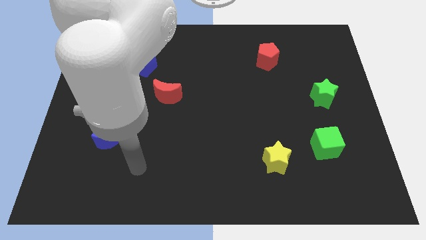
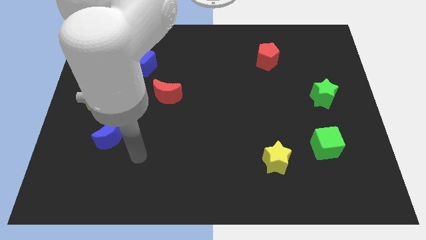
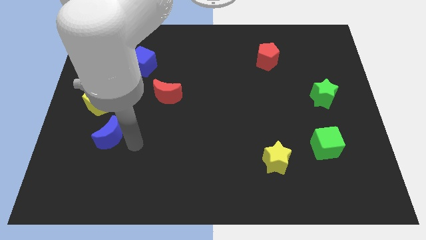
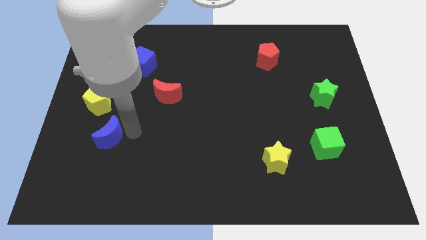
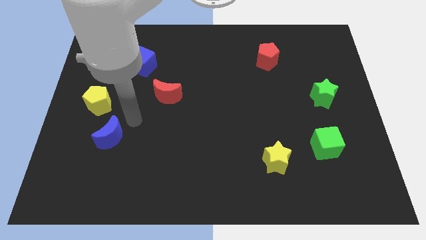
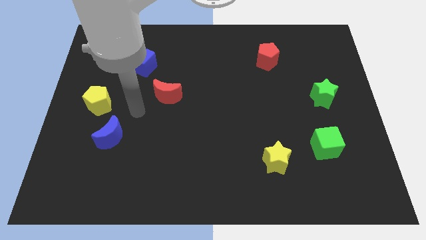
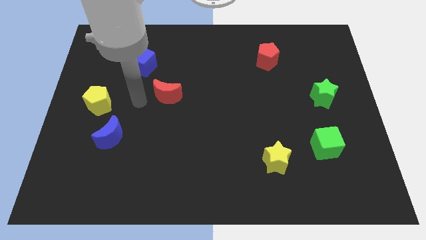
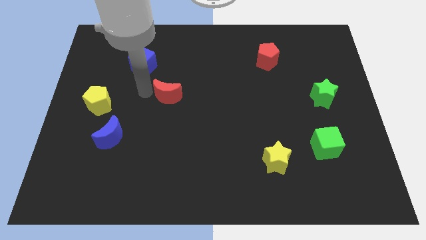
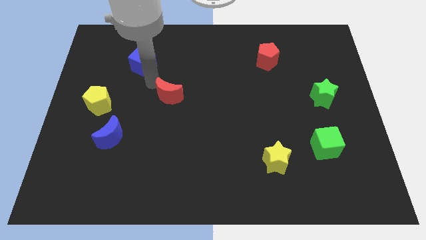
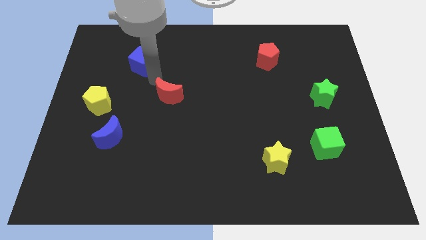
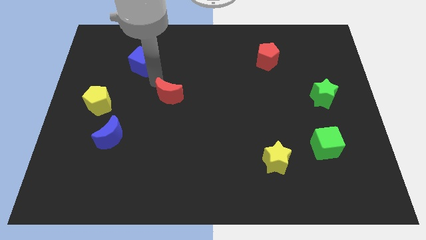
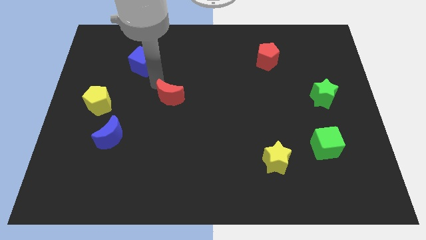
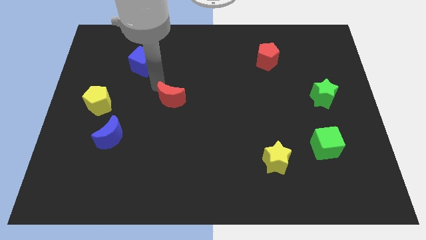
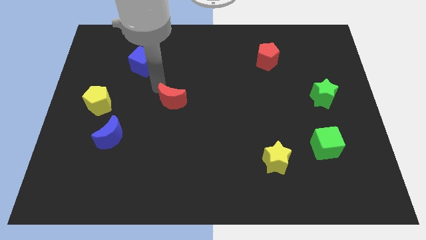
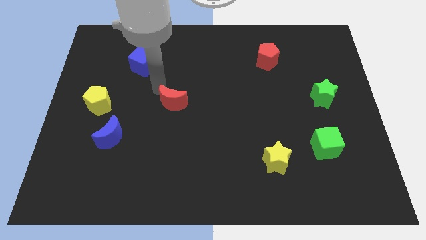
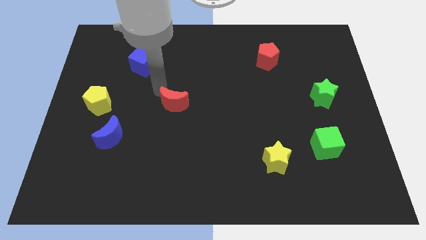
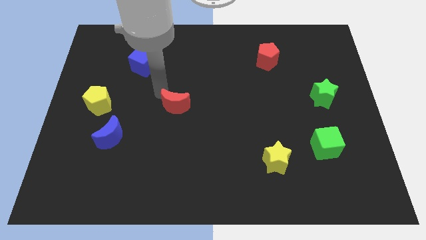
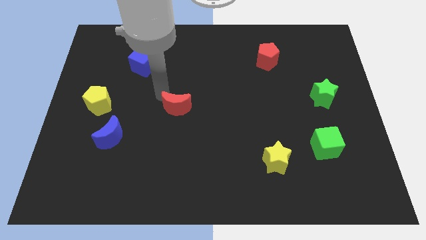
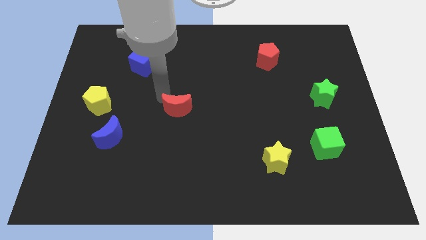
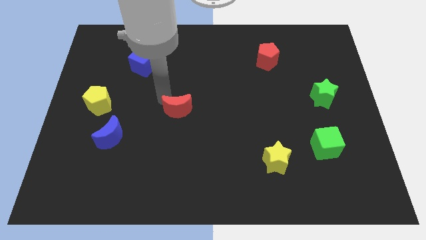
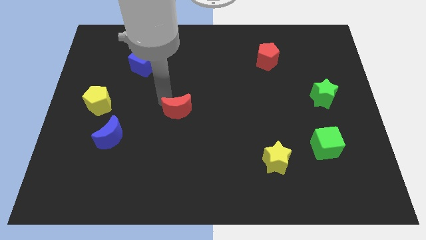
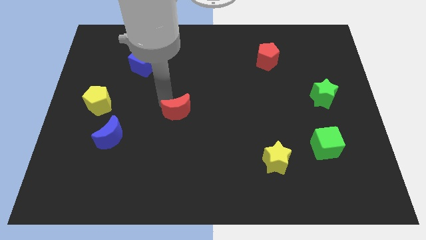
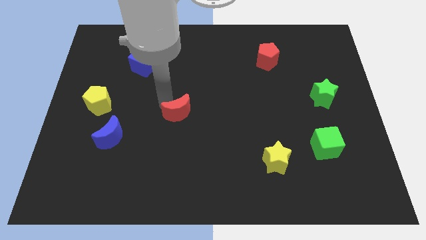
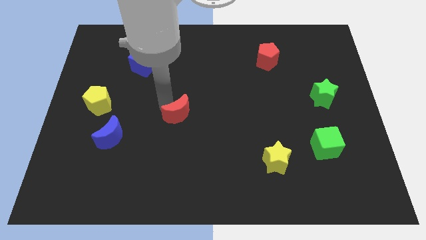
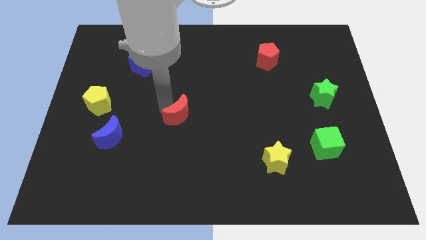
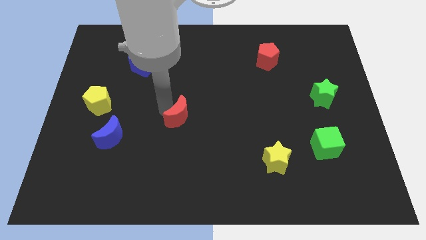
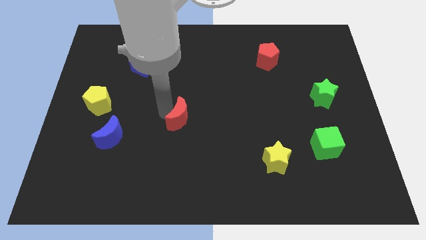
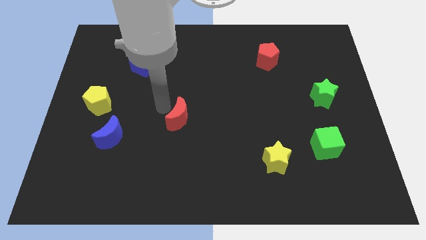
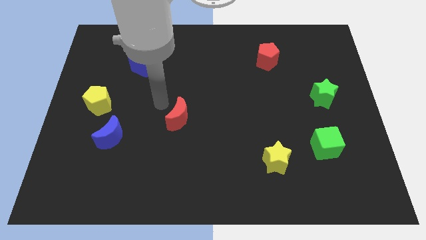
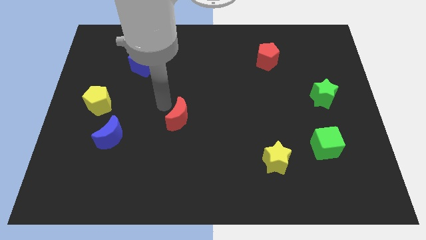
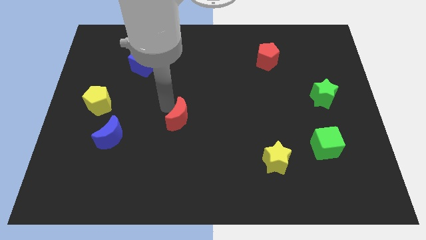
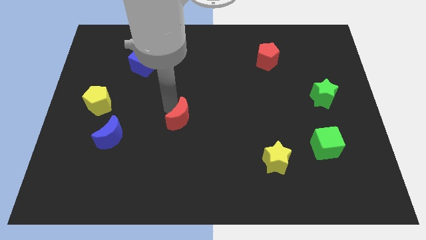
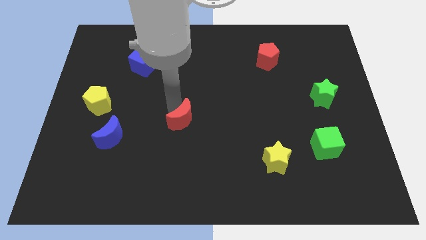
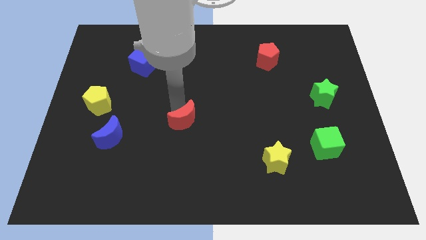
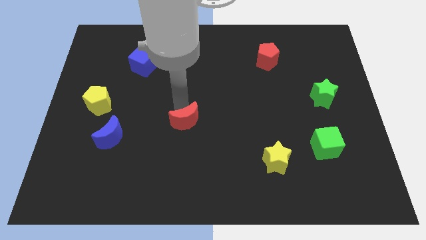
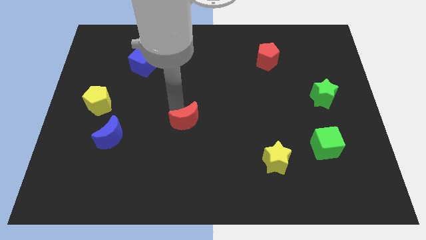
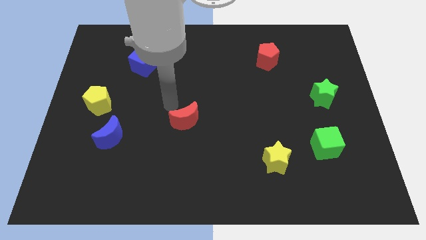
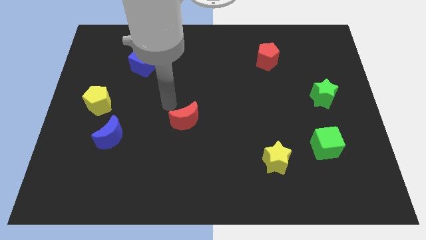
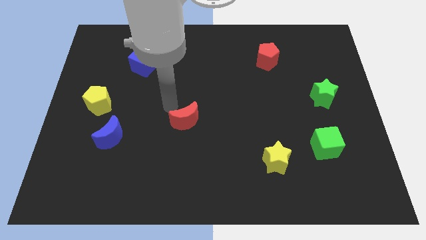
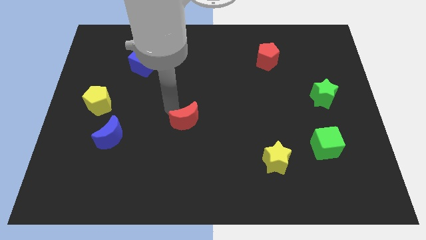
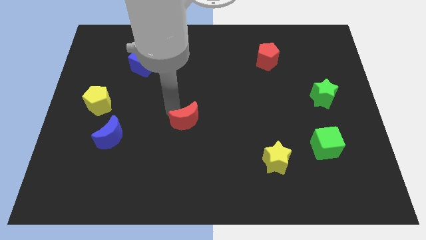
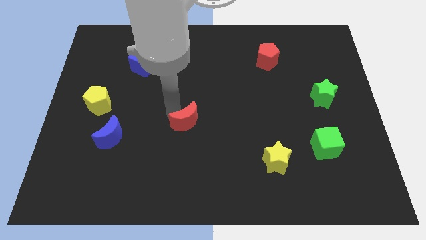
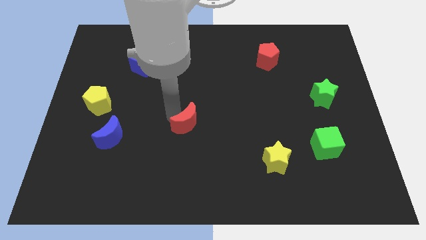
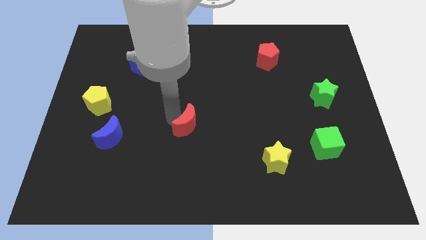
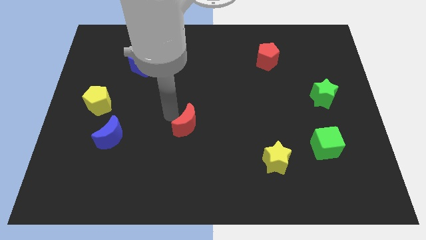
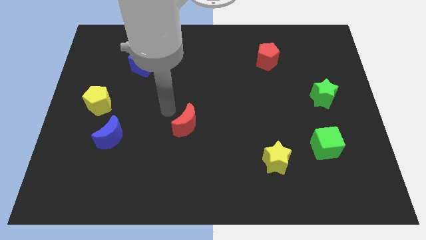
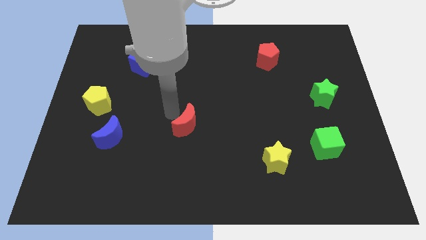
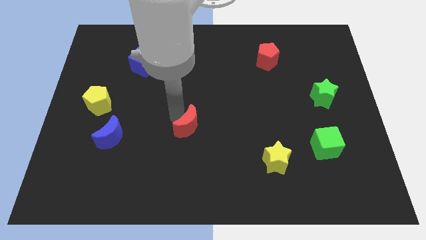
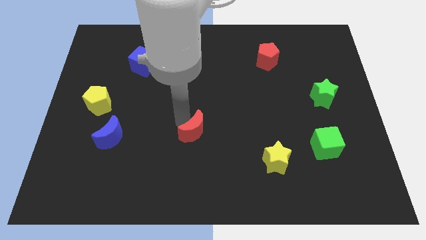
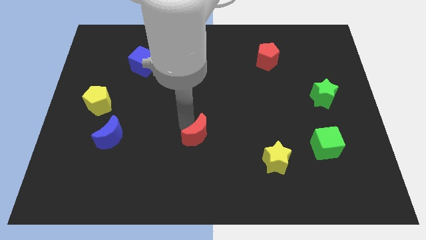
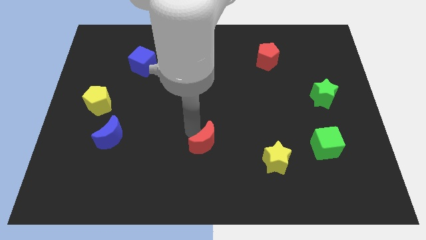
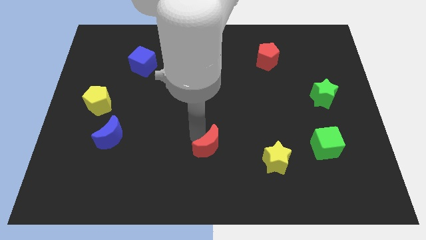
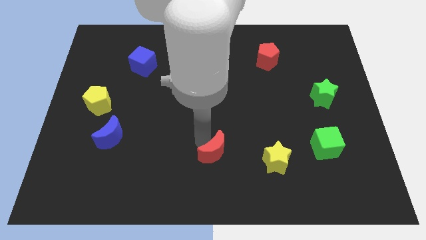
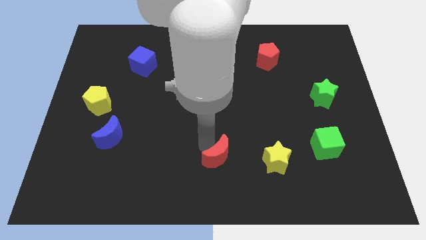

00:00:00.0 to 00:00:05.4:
slide the red moon down and then right

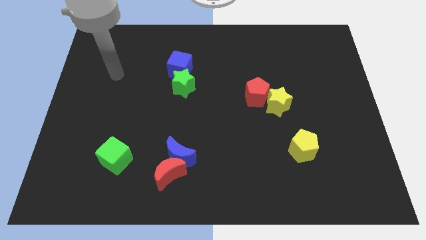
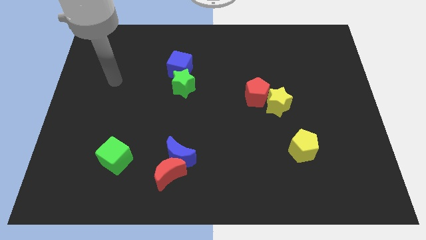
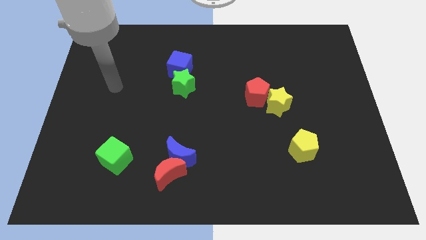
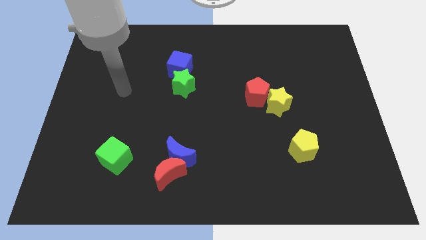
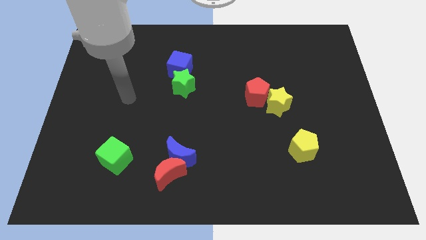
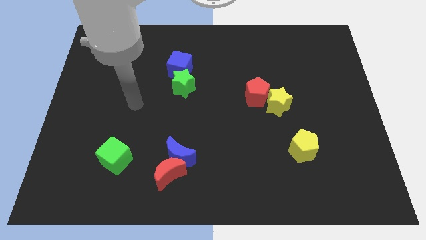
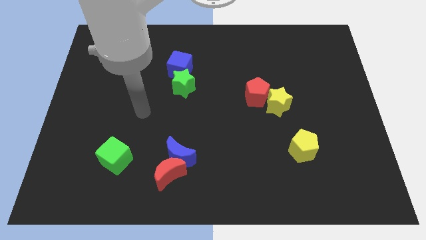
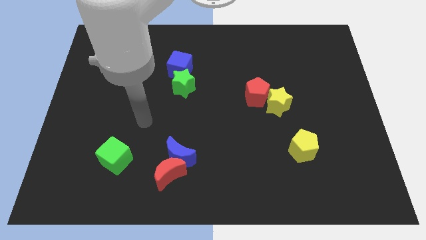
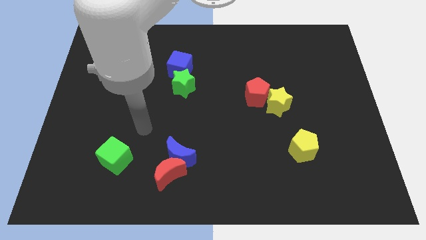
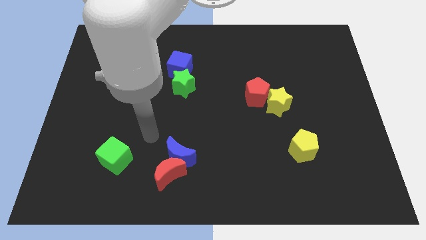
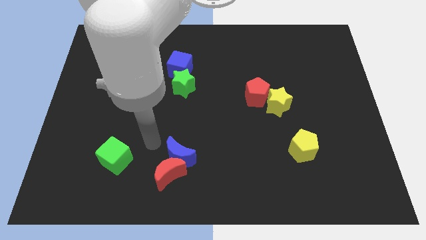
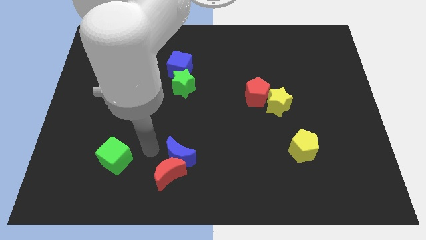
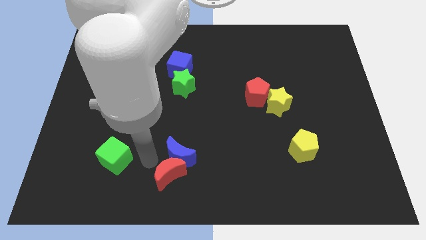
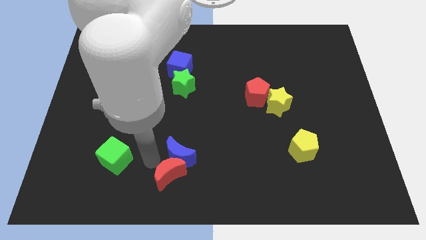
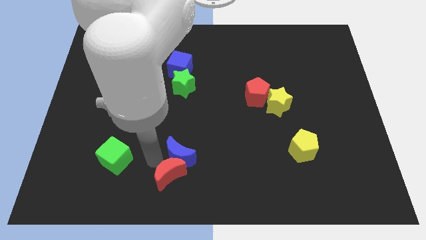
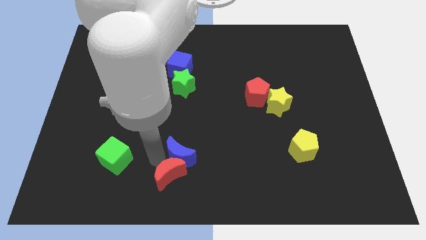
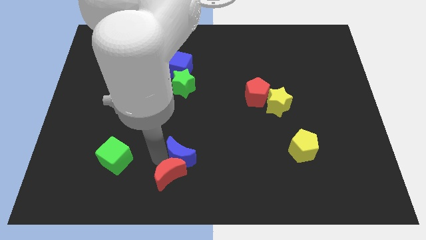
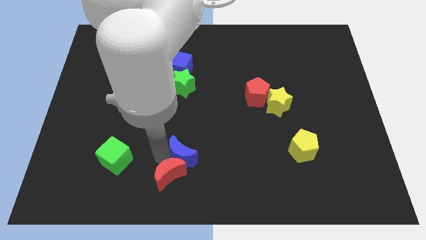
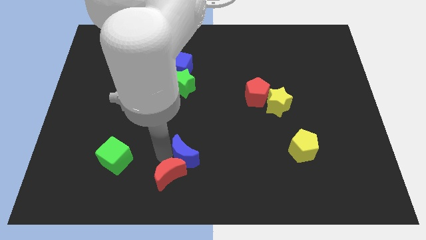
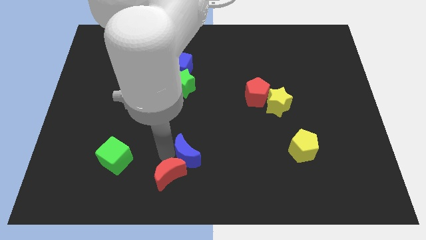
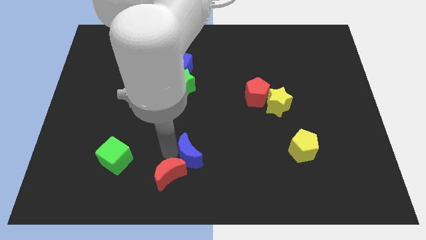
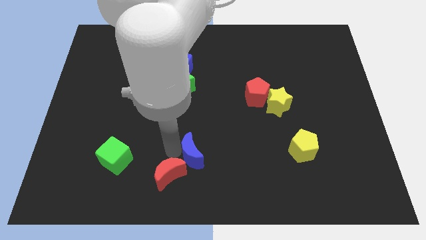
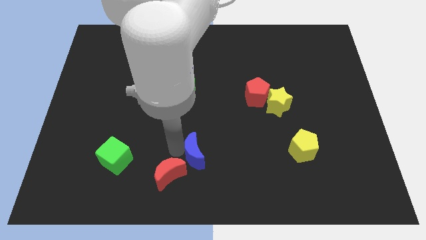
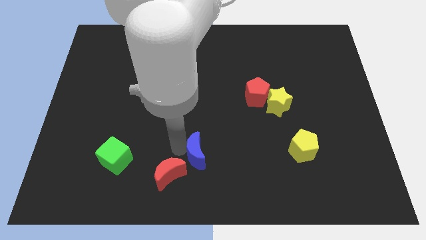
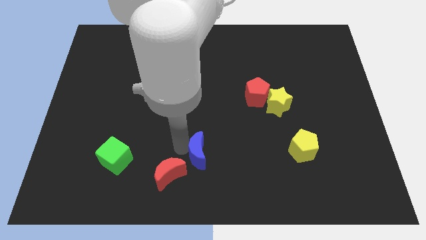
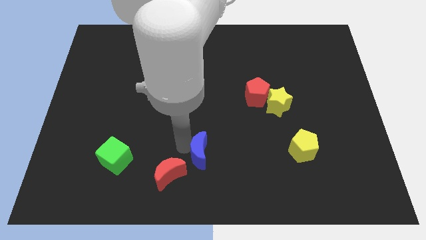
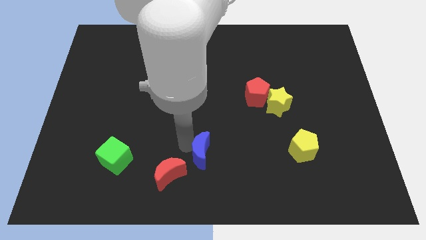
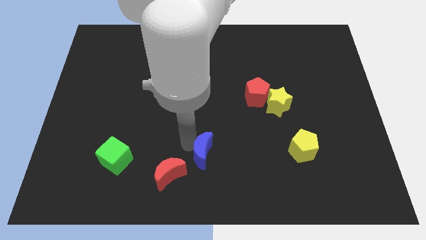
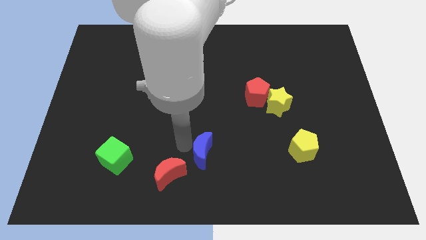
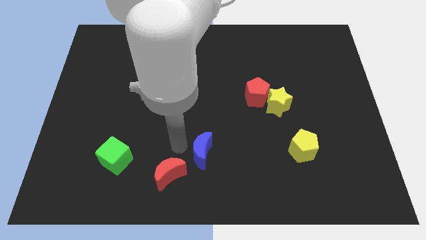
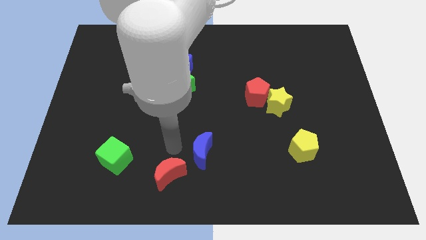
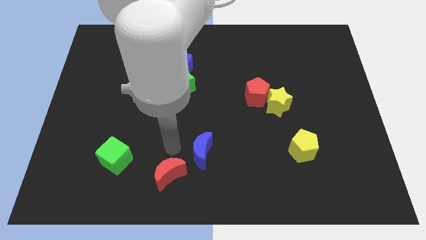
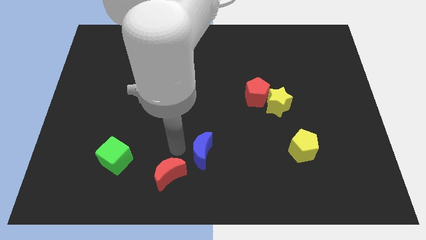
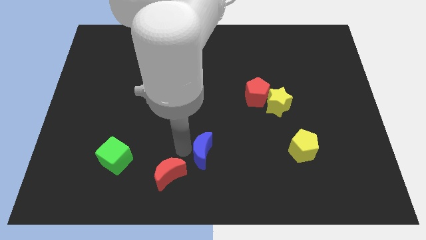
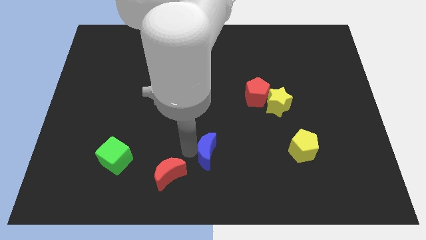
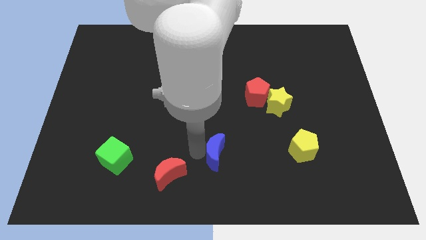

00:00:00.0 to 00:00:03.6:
slightly slide the blue moon right
